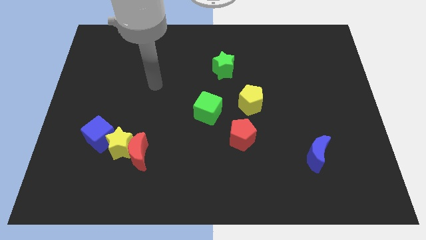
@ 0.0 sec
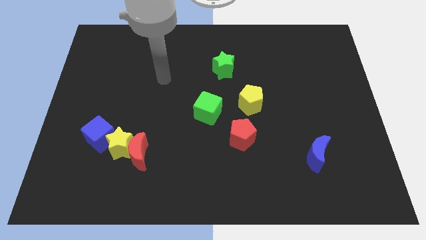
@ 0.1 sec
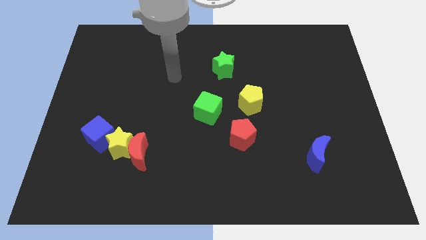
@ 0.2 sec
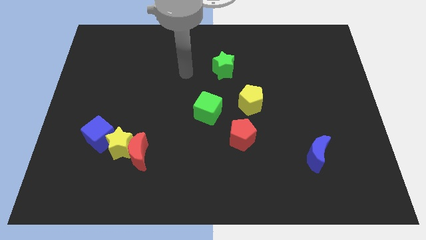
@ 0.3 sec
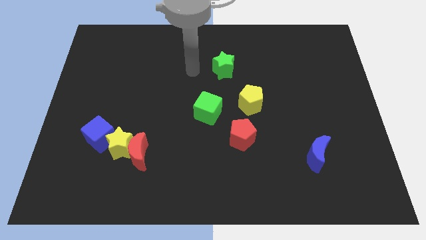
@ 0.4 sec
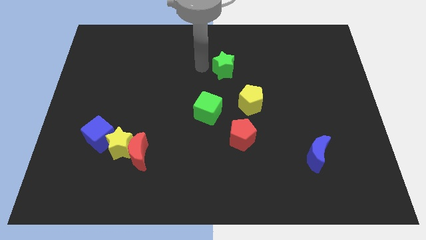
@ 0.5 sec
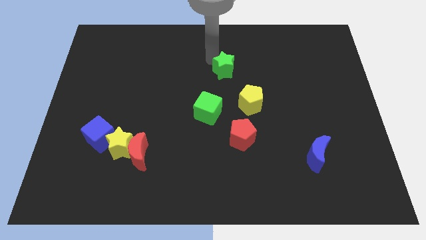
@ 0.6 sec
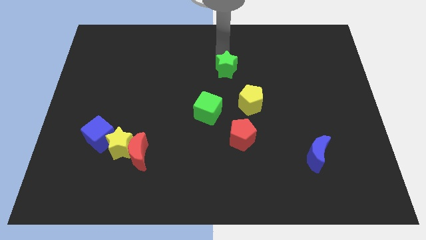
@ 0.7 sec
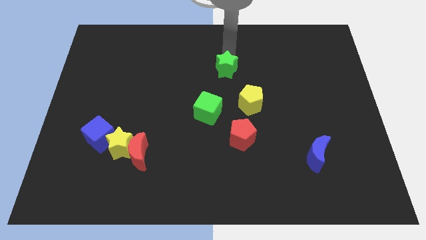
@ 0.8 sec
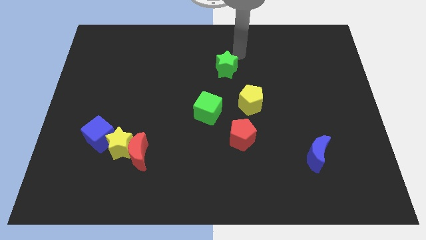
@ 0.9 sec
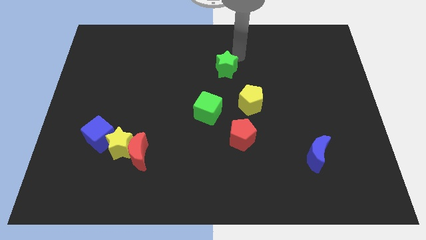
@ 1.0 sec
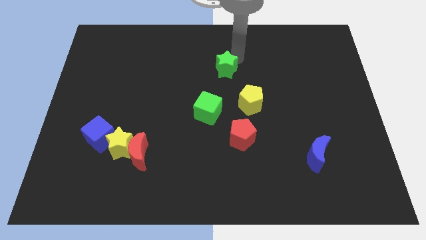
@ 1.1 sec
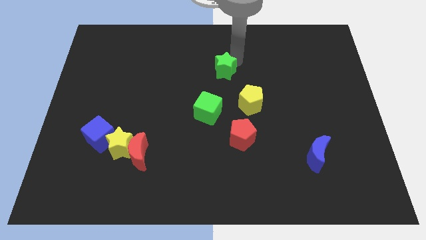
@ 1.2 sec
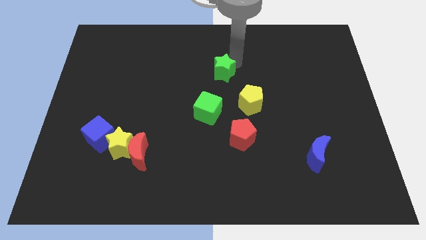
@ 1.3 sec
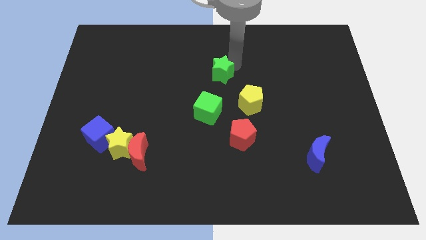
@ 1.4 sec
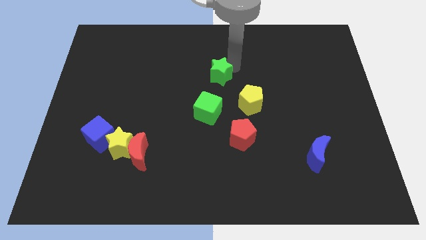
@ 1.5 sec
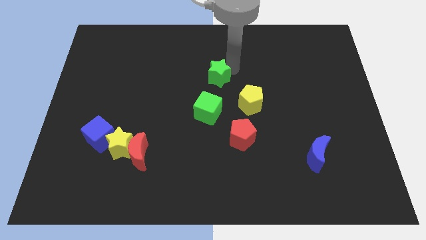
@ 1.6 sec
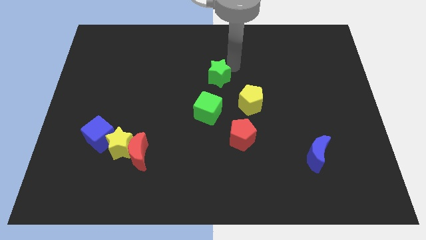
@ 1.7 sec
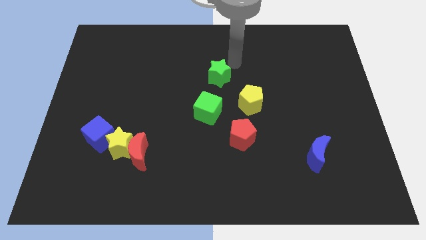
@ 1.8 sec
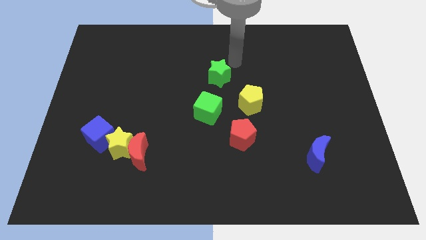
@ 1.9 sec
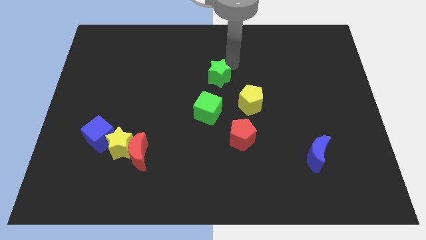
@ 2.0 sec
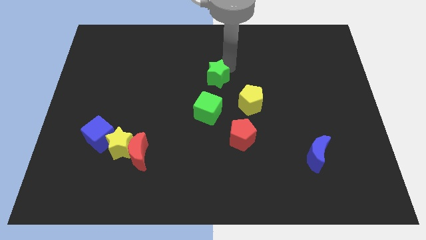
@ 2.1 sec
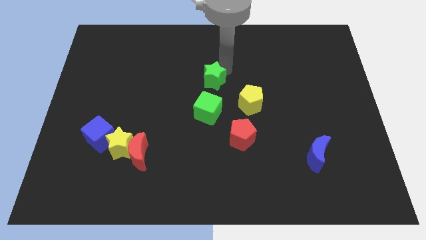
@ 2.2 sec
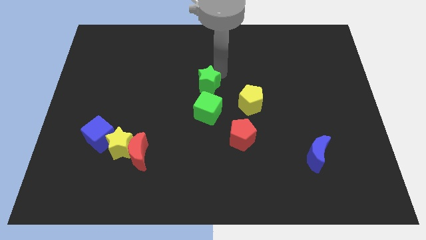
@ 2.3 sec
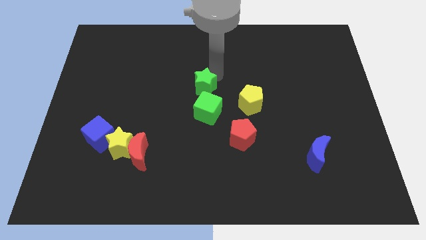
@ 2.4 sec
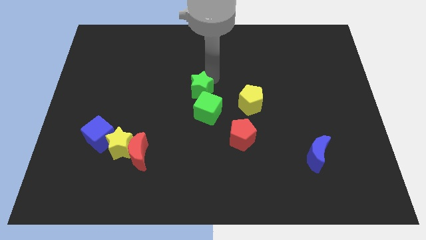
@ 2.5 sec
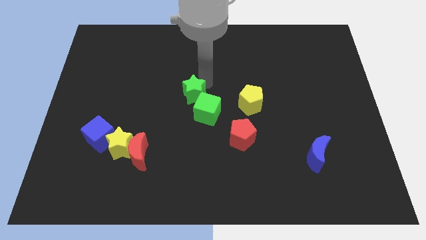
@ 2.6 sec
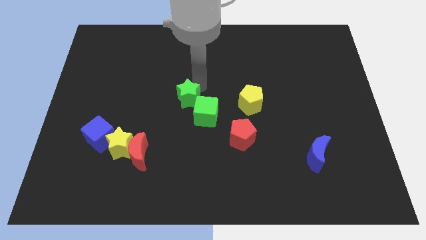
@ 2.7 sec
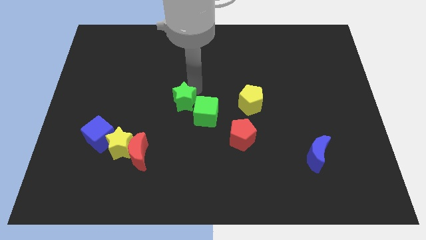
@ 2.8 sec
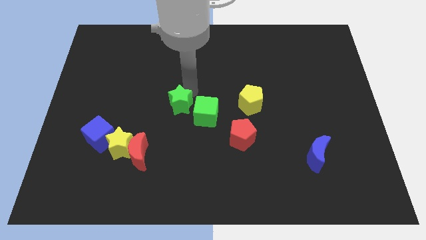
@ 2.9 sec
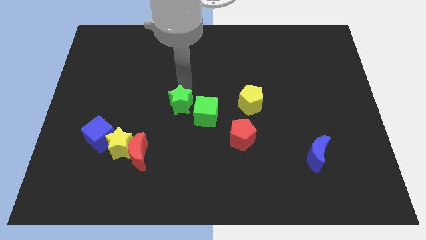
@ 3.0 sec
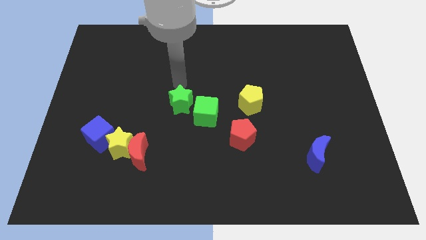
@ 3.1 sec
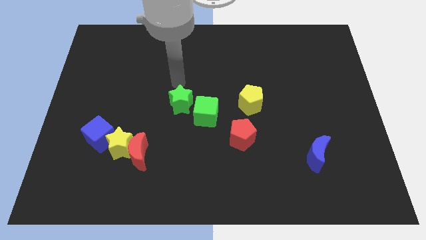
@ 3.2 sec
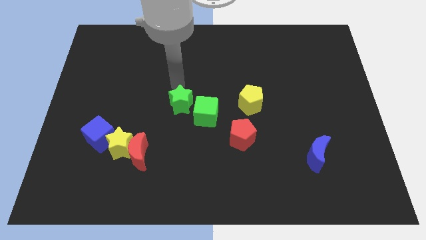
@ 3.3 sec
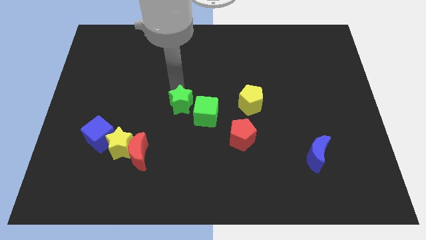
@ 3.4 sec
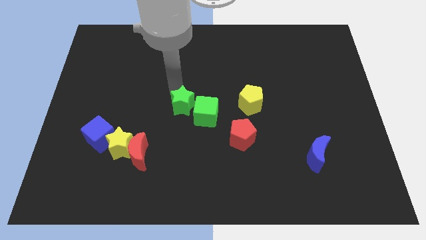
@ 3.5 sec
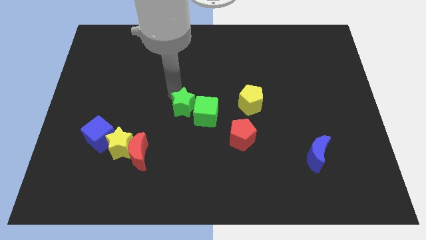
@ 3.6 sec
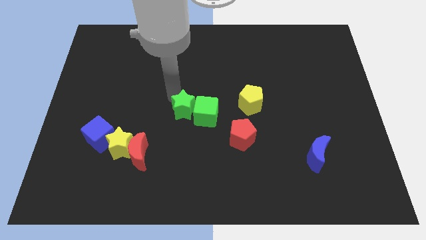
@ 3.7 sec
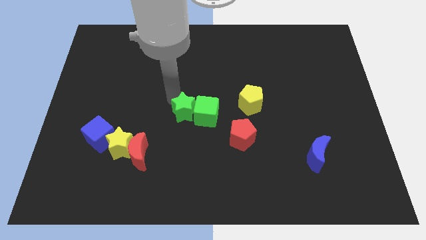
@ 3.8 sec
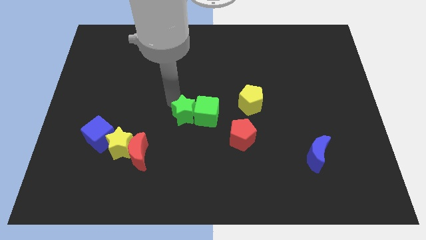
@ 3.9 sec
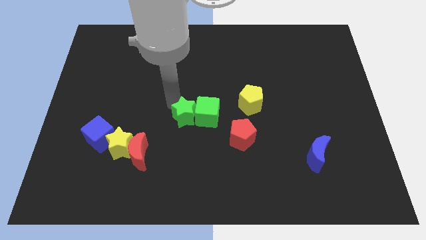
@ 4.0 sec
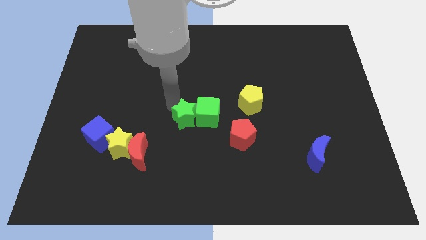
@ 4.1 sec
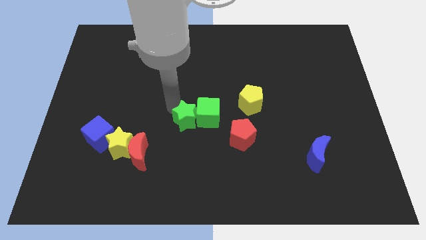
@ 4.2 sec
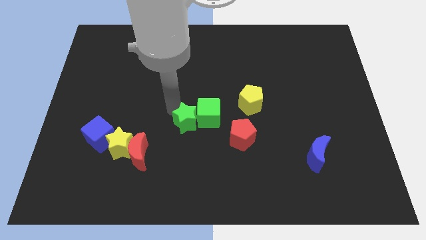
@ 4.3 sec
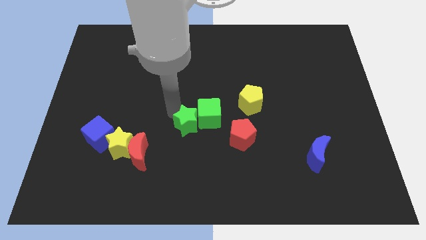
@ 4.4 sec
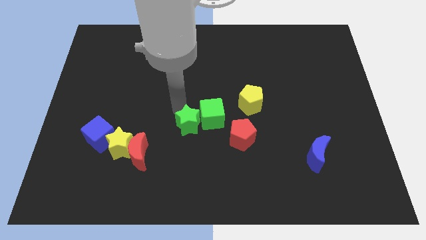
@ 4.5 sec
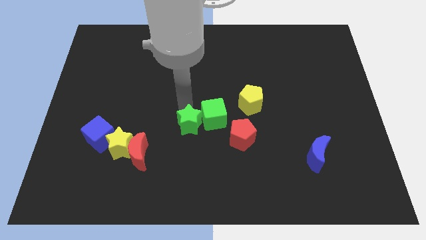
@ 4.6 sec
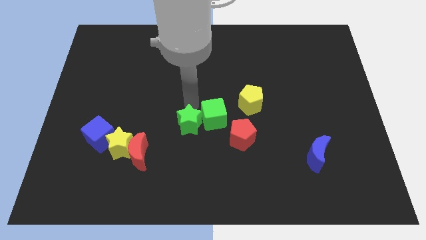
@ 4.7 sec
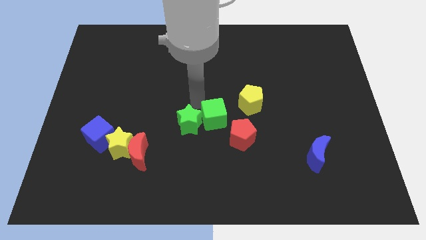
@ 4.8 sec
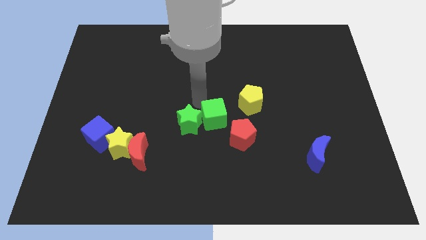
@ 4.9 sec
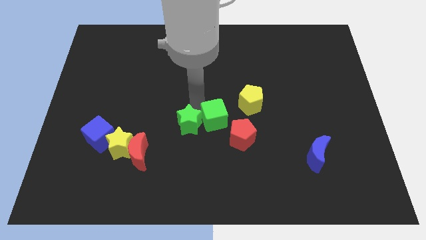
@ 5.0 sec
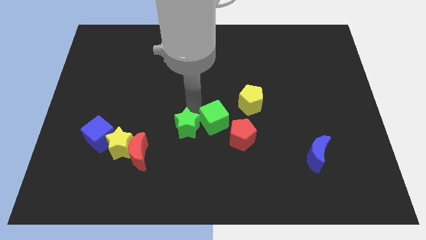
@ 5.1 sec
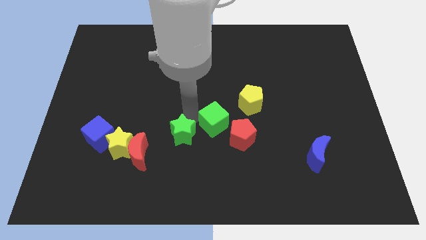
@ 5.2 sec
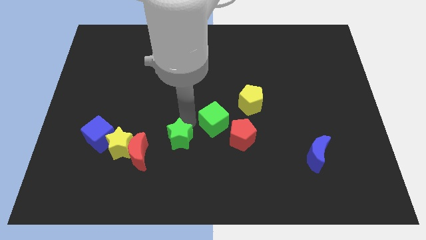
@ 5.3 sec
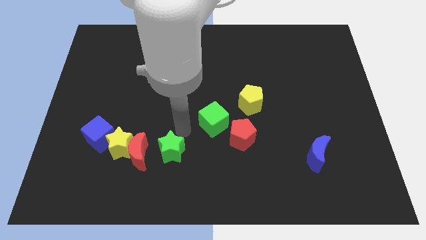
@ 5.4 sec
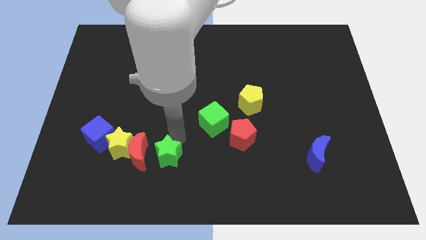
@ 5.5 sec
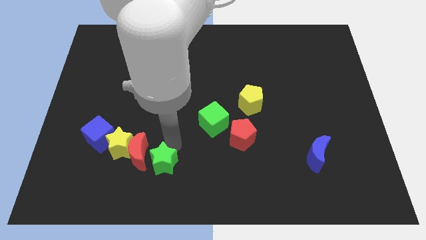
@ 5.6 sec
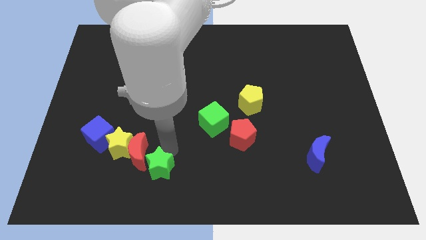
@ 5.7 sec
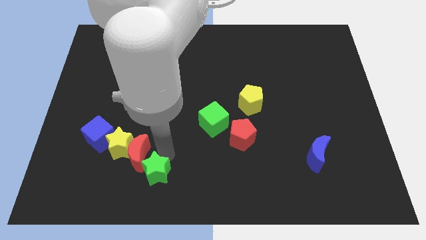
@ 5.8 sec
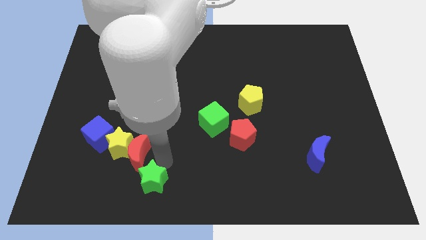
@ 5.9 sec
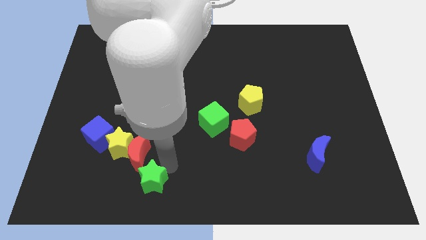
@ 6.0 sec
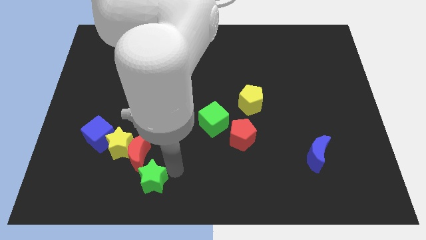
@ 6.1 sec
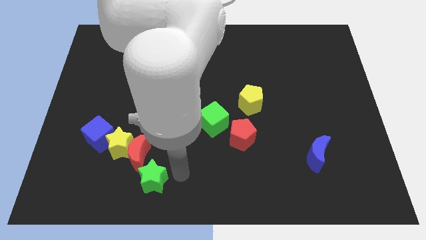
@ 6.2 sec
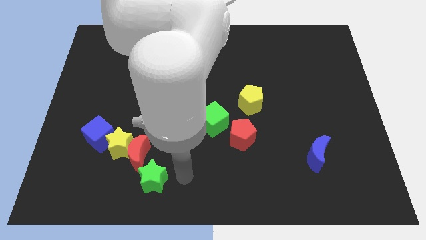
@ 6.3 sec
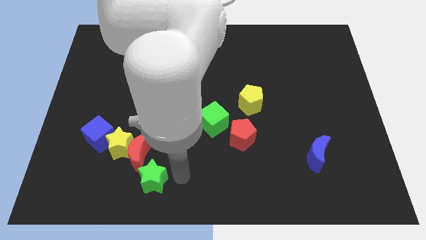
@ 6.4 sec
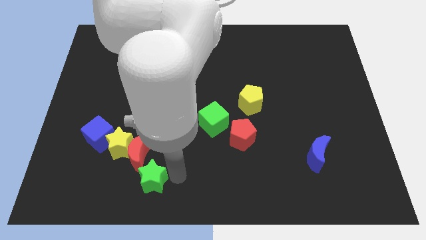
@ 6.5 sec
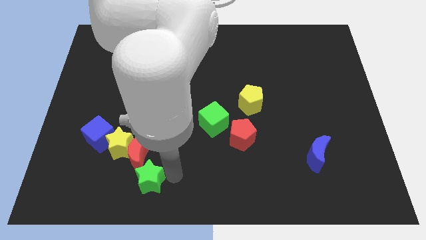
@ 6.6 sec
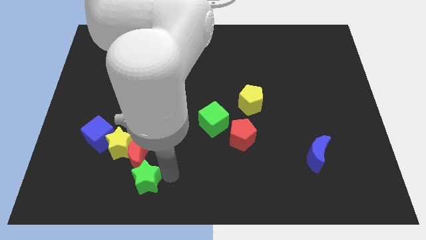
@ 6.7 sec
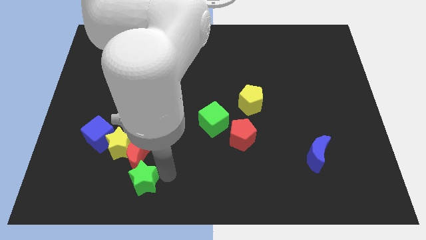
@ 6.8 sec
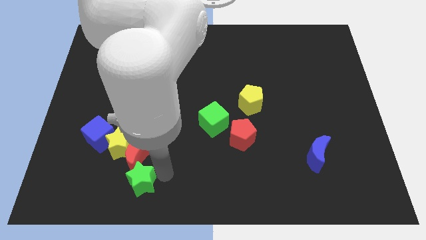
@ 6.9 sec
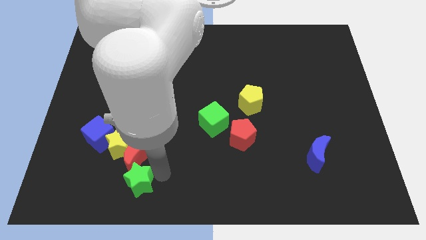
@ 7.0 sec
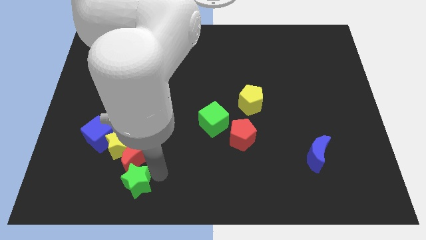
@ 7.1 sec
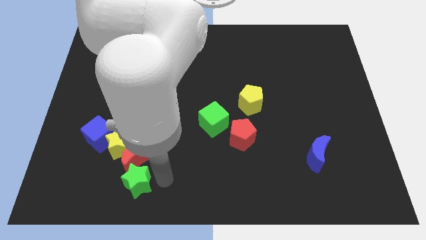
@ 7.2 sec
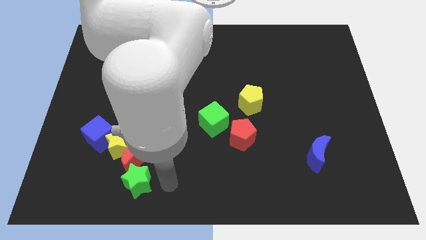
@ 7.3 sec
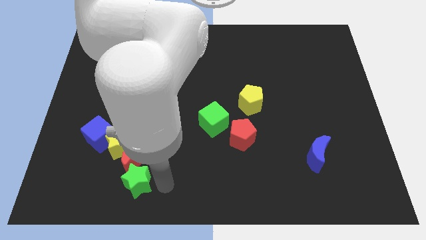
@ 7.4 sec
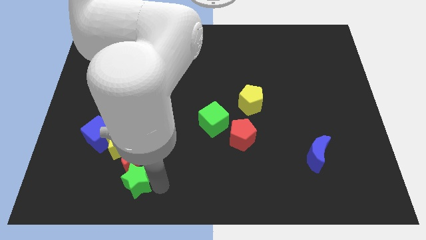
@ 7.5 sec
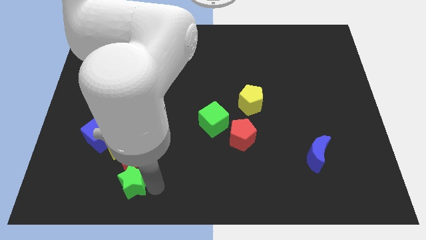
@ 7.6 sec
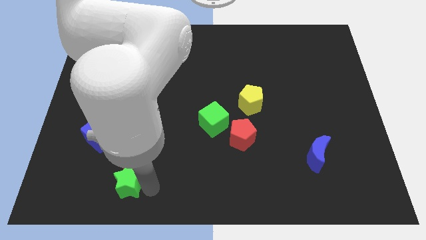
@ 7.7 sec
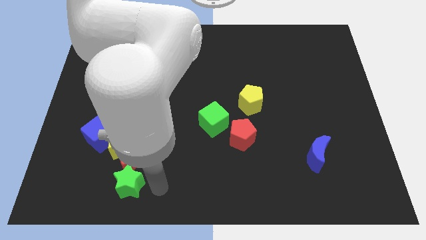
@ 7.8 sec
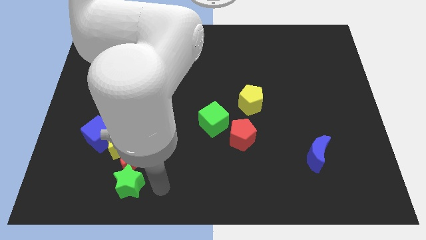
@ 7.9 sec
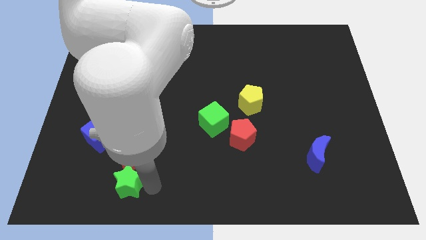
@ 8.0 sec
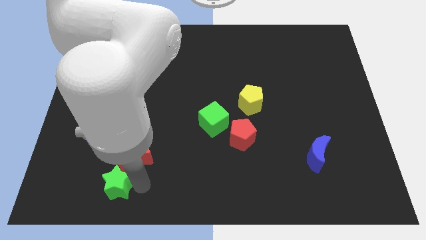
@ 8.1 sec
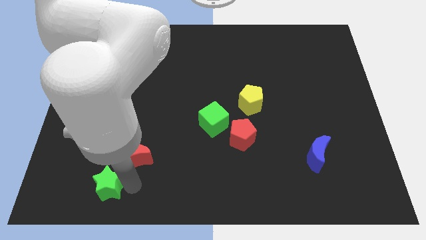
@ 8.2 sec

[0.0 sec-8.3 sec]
slide the green star below the blue cube
